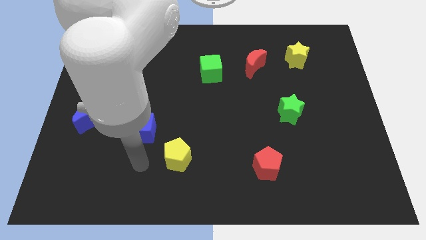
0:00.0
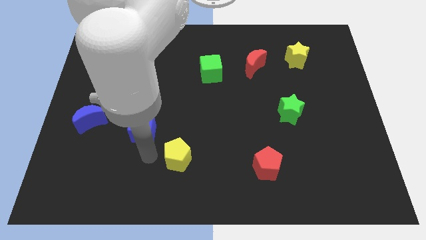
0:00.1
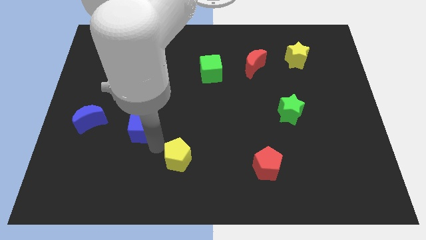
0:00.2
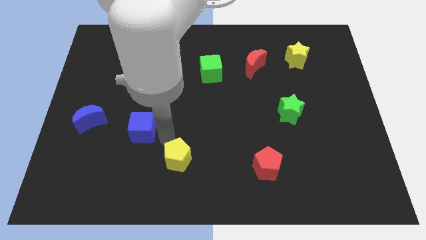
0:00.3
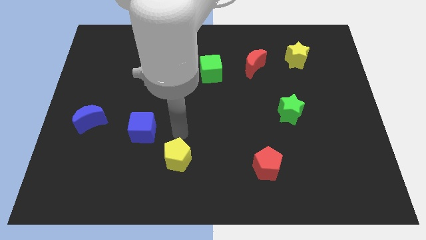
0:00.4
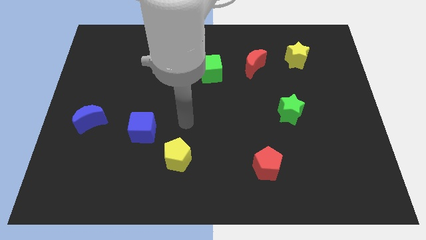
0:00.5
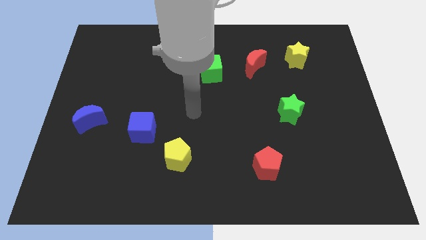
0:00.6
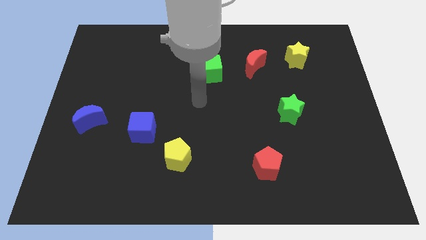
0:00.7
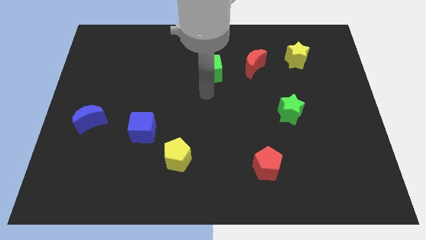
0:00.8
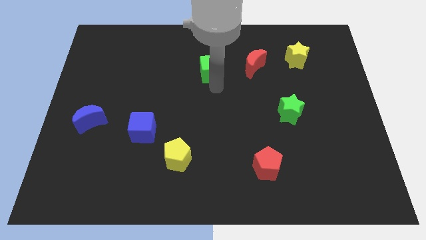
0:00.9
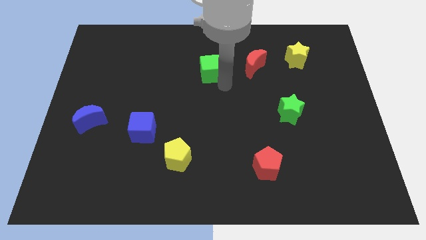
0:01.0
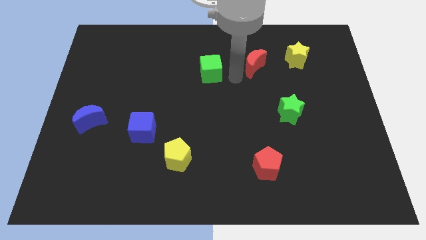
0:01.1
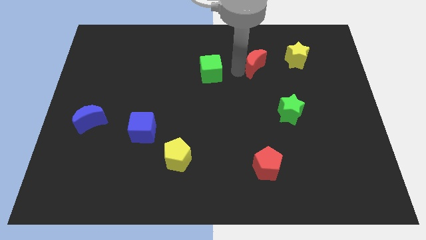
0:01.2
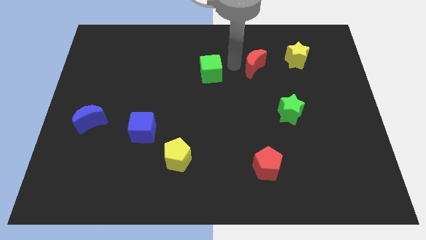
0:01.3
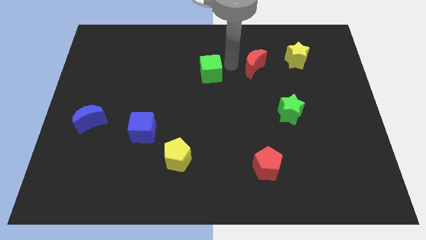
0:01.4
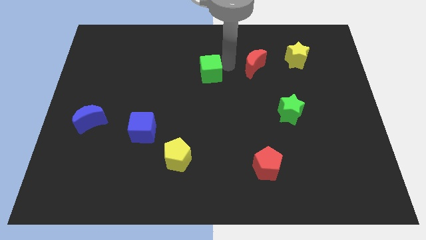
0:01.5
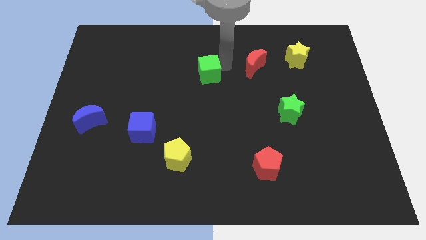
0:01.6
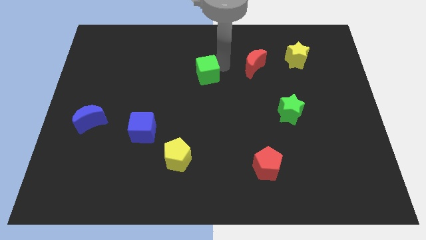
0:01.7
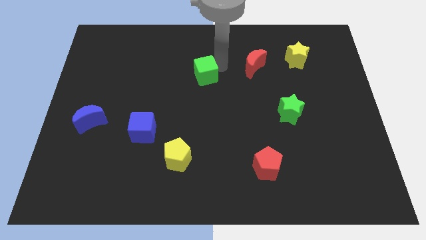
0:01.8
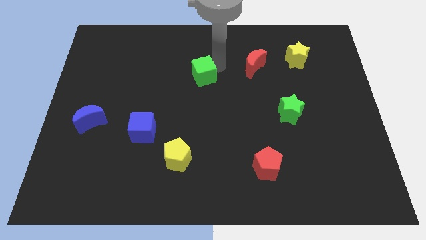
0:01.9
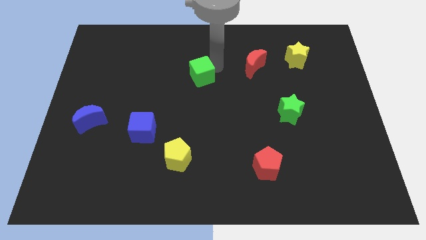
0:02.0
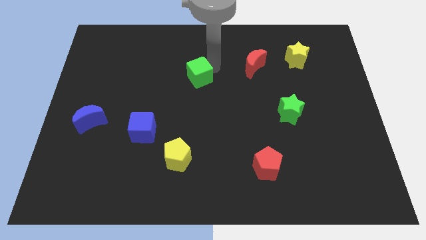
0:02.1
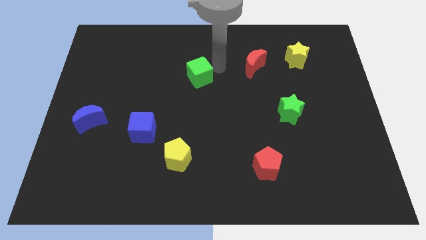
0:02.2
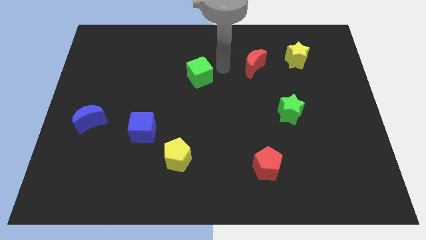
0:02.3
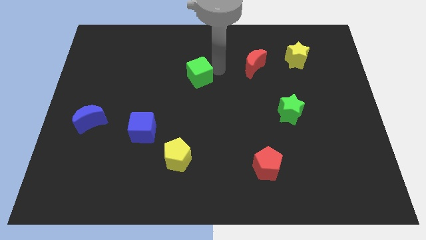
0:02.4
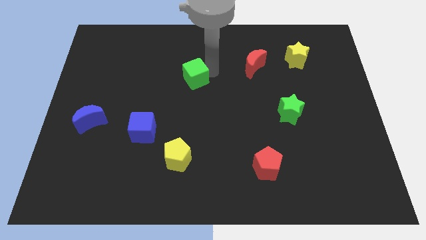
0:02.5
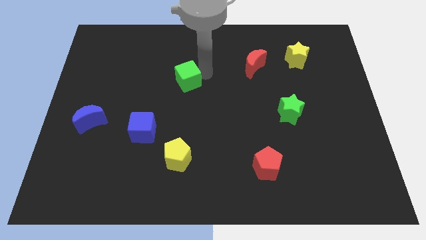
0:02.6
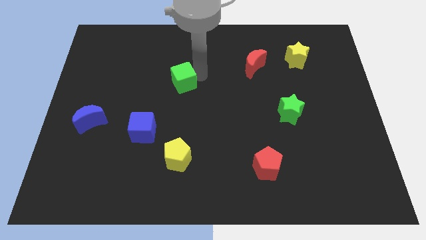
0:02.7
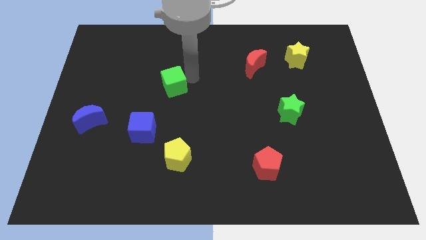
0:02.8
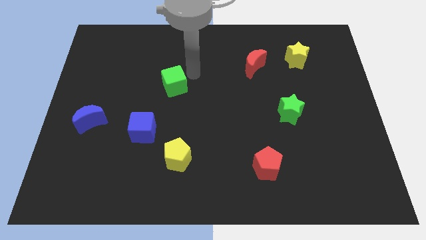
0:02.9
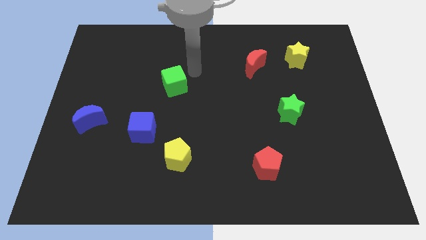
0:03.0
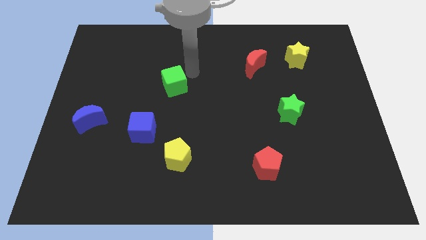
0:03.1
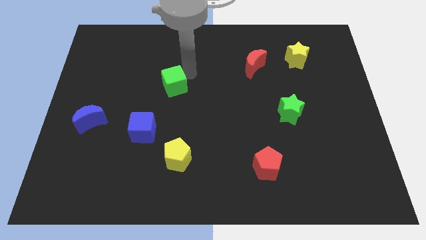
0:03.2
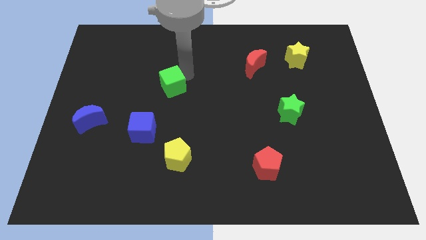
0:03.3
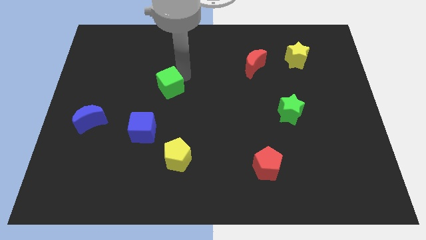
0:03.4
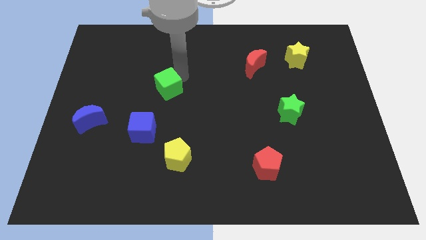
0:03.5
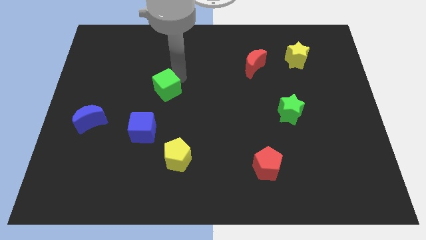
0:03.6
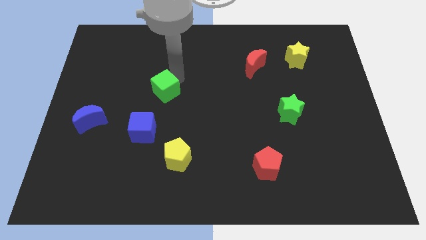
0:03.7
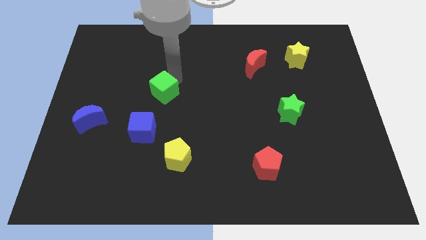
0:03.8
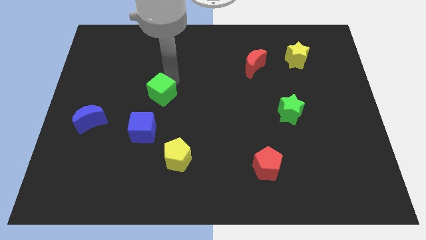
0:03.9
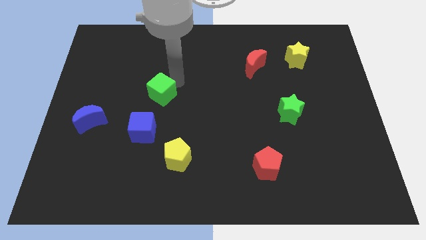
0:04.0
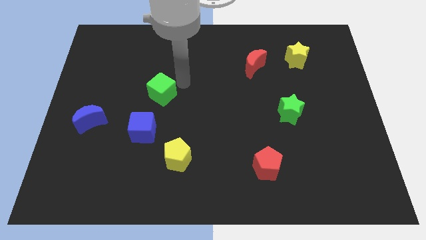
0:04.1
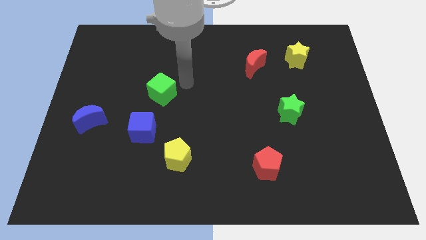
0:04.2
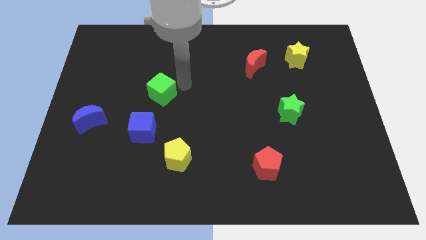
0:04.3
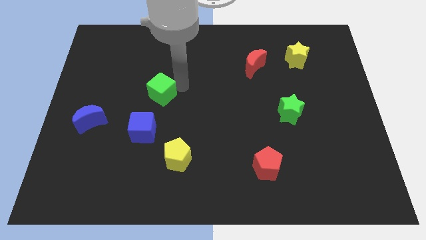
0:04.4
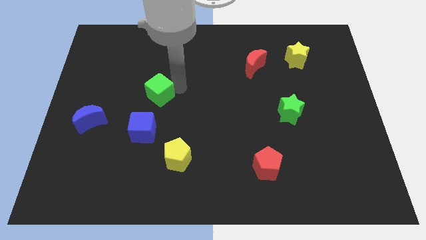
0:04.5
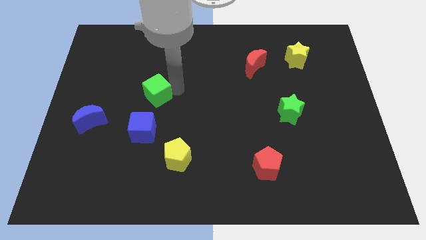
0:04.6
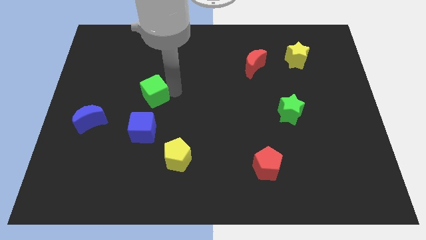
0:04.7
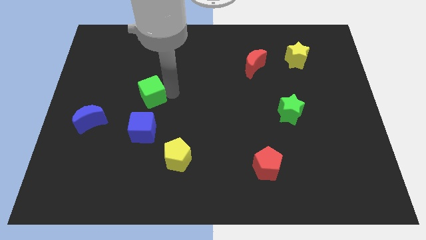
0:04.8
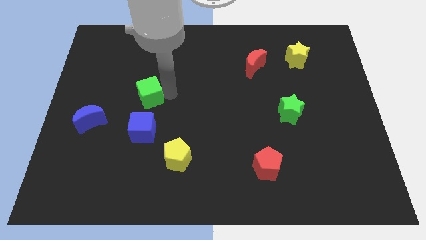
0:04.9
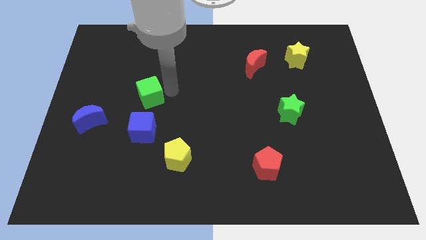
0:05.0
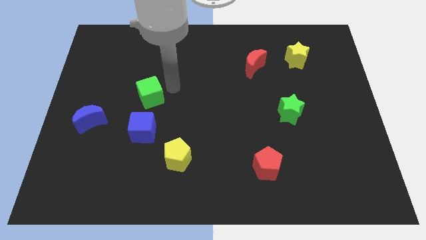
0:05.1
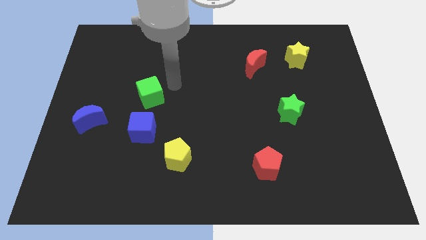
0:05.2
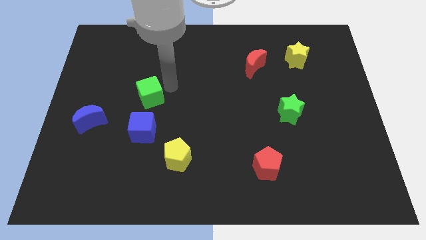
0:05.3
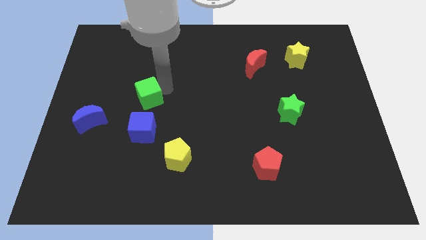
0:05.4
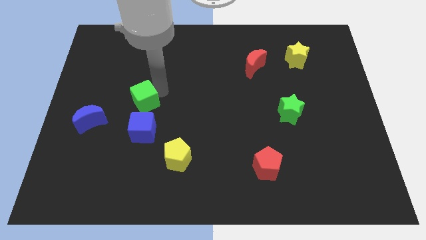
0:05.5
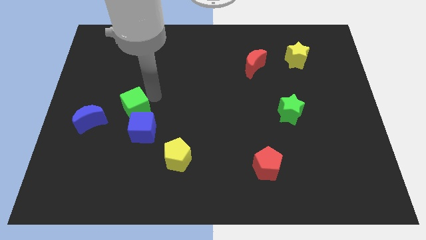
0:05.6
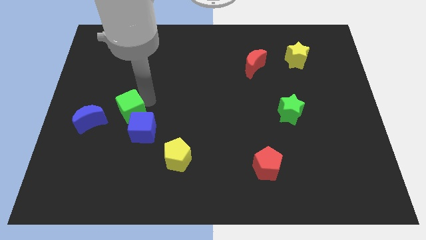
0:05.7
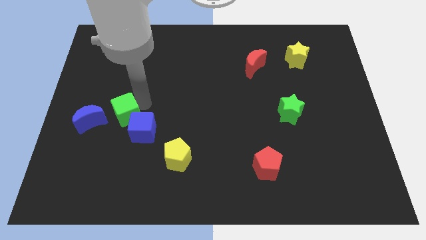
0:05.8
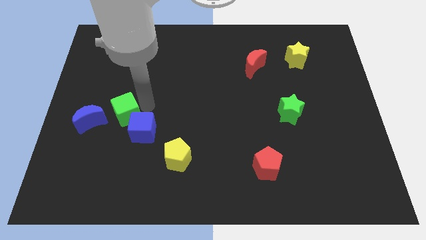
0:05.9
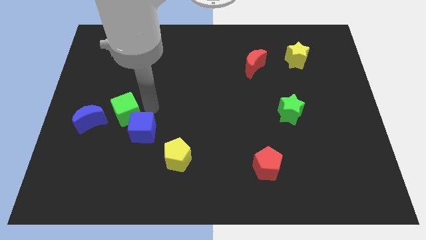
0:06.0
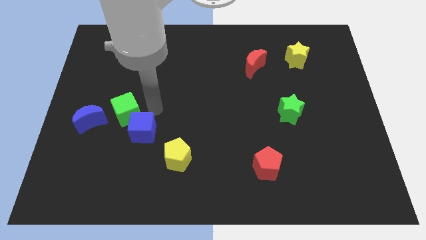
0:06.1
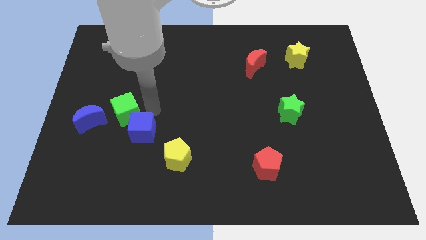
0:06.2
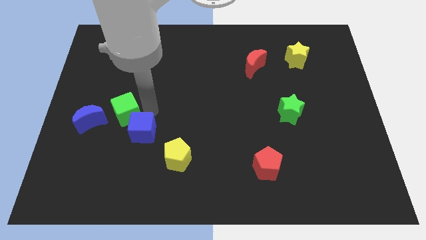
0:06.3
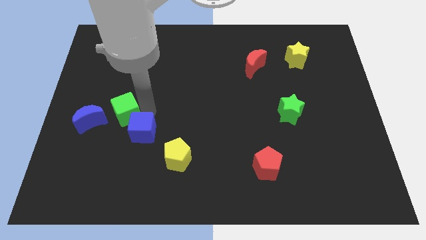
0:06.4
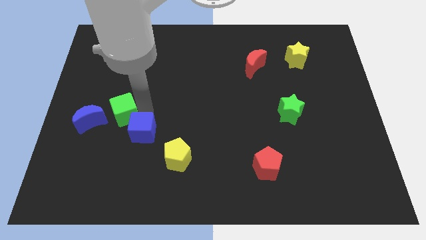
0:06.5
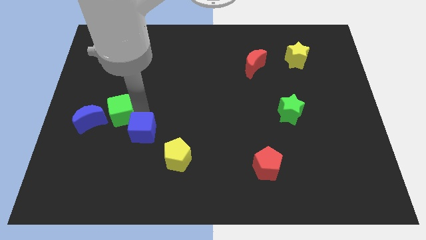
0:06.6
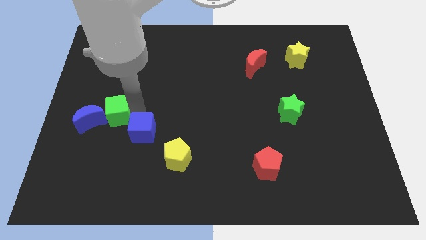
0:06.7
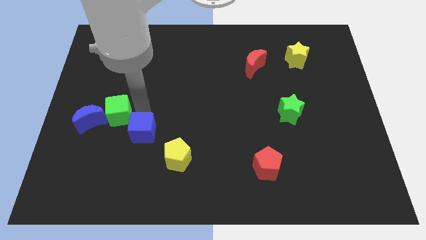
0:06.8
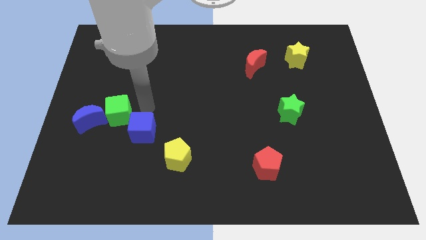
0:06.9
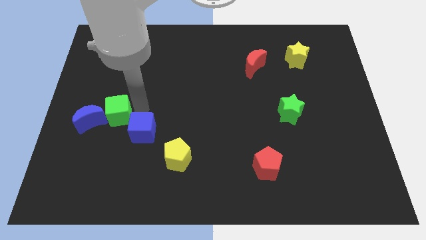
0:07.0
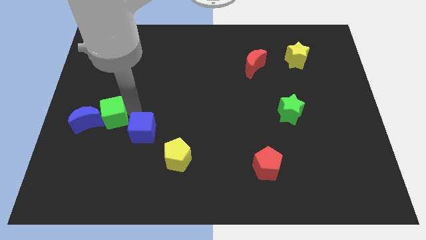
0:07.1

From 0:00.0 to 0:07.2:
slide the green cube close to the blue moon
